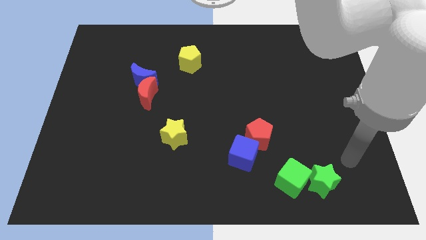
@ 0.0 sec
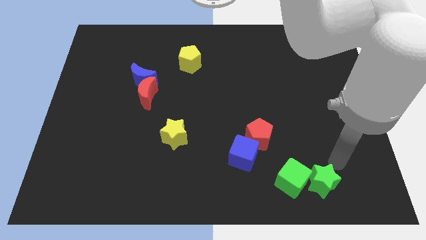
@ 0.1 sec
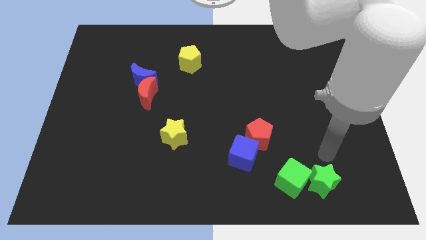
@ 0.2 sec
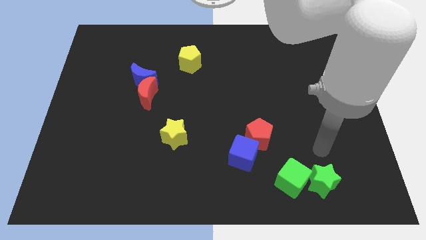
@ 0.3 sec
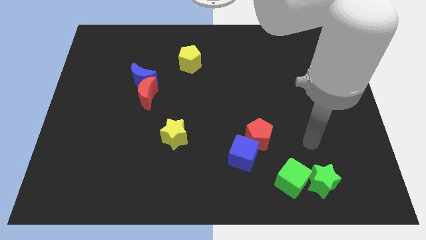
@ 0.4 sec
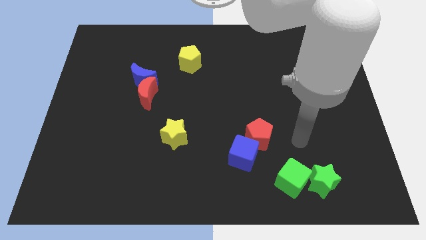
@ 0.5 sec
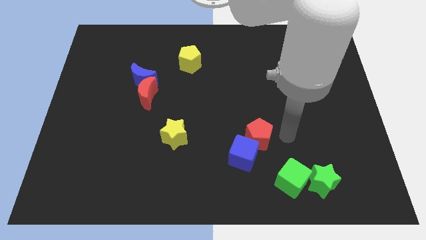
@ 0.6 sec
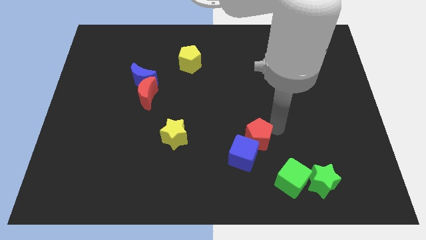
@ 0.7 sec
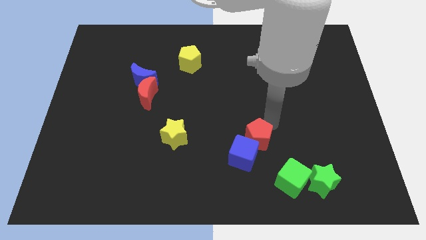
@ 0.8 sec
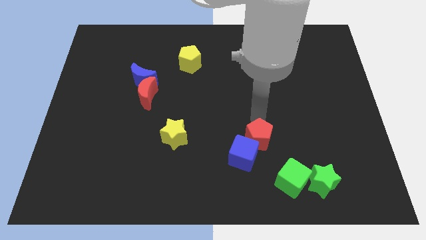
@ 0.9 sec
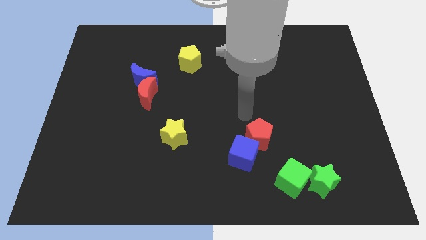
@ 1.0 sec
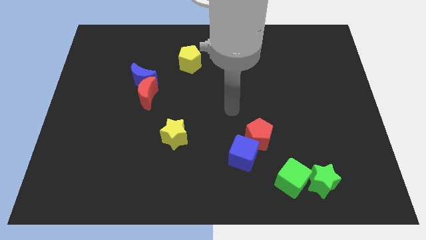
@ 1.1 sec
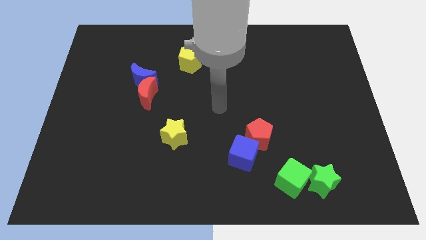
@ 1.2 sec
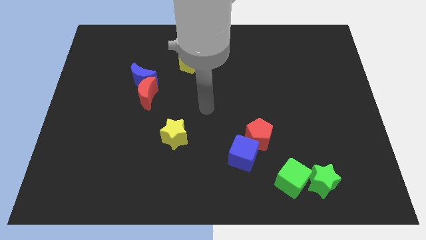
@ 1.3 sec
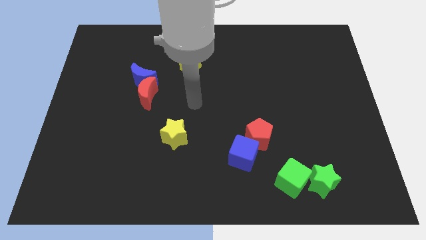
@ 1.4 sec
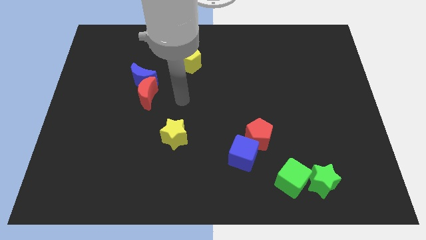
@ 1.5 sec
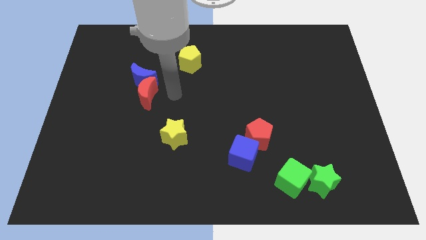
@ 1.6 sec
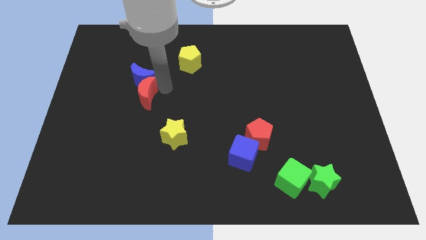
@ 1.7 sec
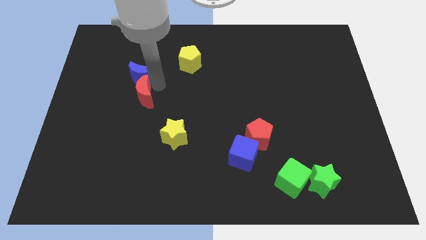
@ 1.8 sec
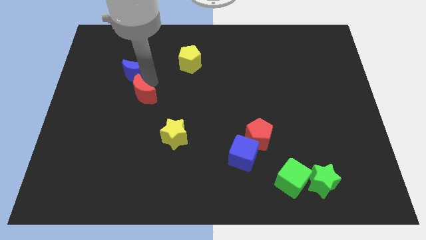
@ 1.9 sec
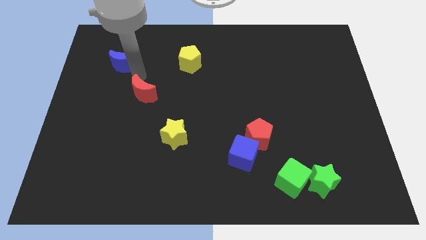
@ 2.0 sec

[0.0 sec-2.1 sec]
separate the red moon from the blue moon

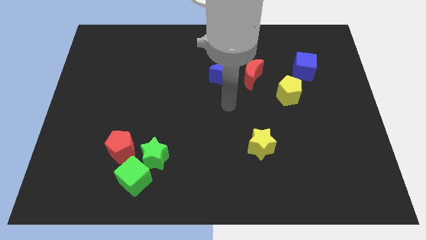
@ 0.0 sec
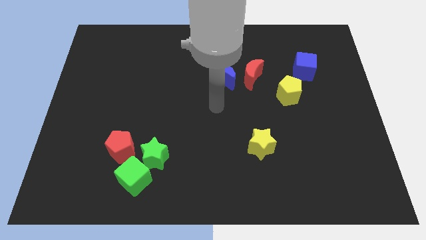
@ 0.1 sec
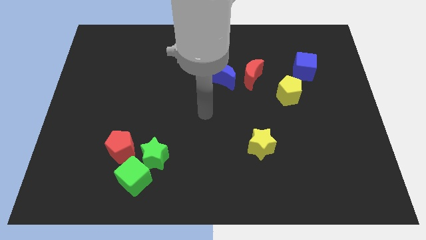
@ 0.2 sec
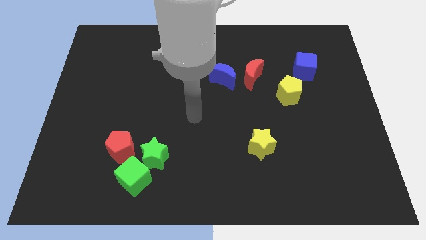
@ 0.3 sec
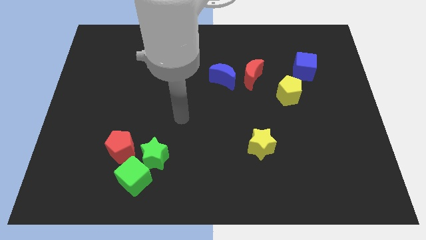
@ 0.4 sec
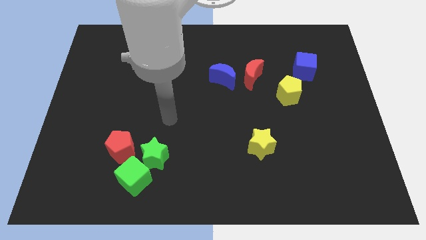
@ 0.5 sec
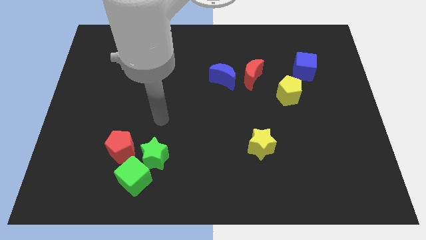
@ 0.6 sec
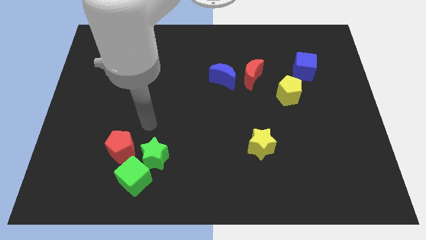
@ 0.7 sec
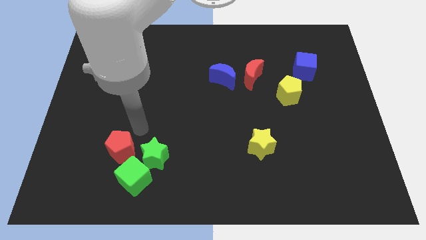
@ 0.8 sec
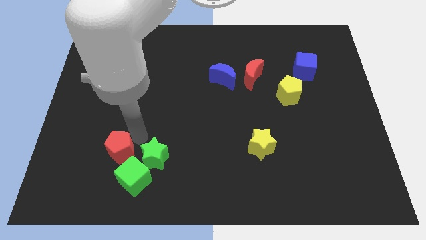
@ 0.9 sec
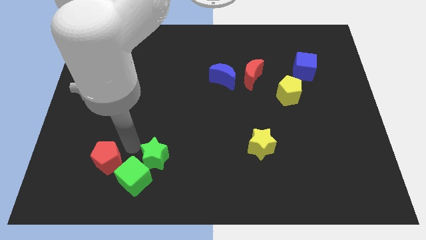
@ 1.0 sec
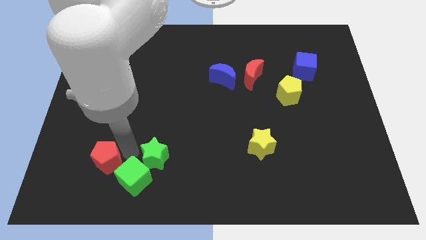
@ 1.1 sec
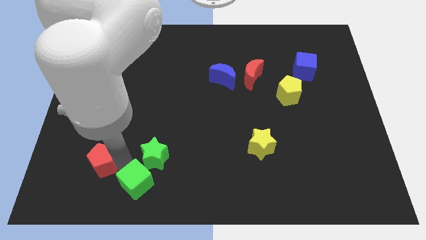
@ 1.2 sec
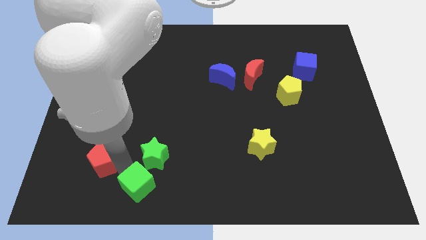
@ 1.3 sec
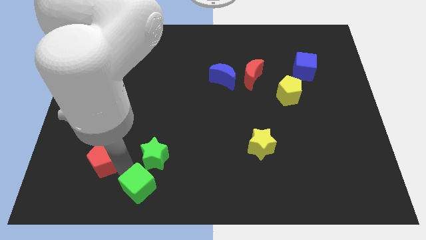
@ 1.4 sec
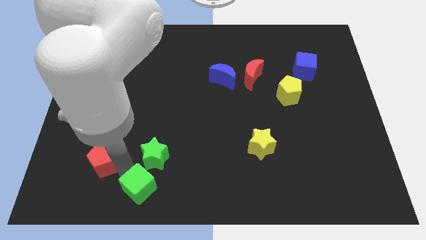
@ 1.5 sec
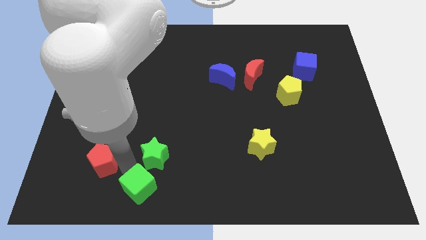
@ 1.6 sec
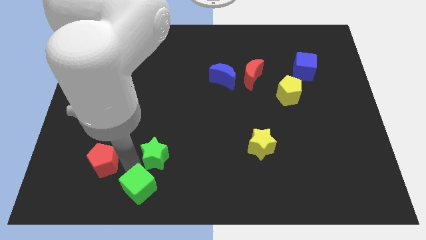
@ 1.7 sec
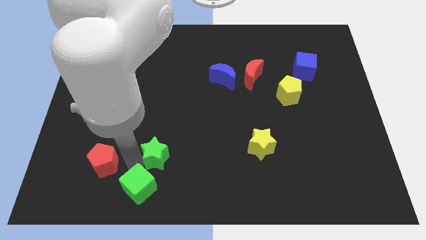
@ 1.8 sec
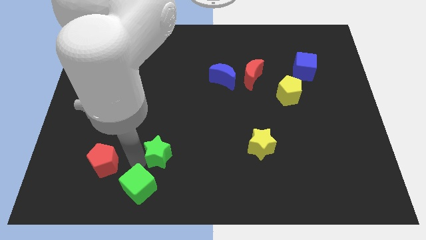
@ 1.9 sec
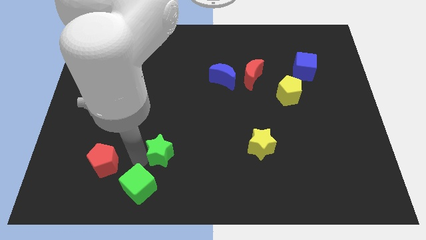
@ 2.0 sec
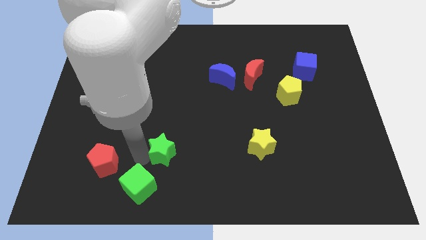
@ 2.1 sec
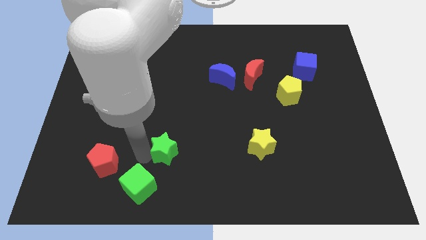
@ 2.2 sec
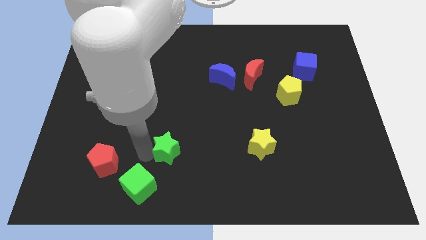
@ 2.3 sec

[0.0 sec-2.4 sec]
separate the green star from the green cube and red pentagon

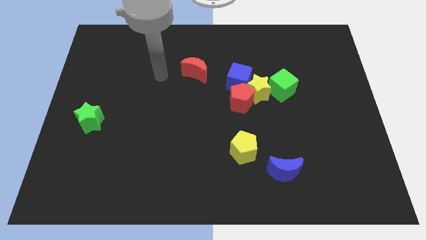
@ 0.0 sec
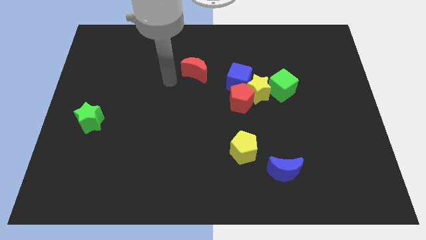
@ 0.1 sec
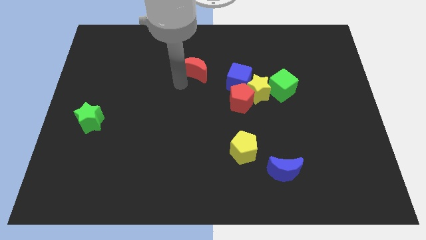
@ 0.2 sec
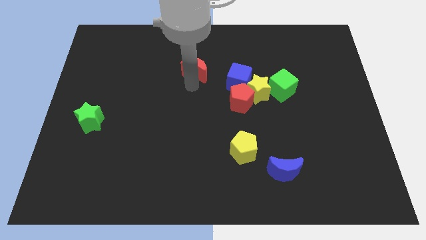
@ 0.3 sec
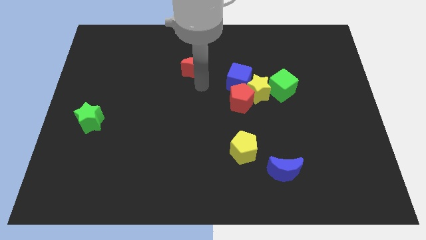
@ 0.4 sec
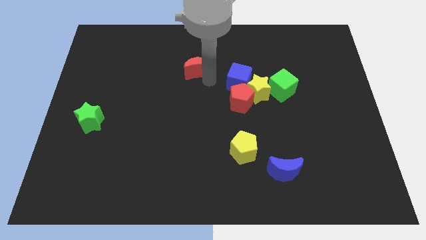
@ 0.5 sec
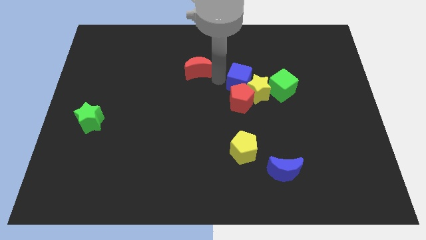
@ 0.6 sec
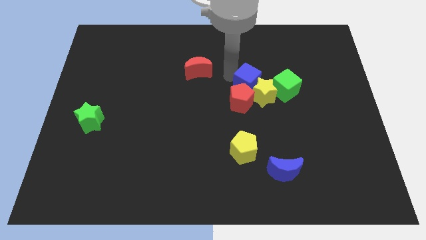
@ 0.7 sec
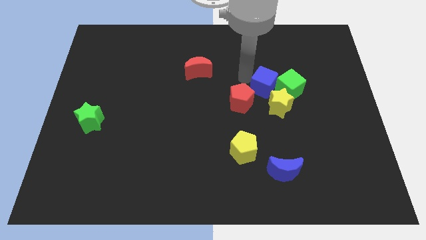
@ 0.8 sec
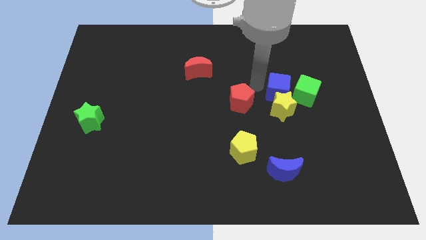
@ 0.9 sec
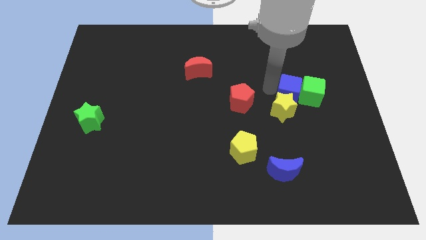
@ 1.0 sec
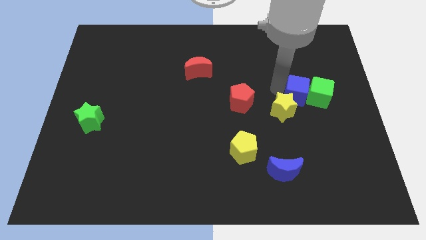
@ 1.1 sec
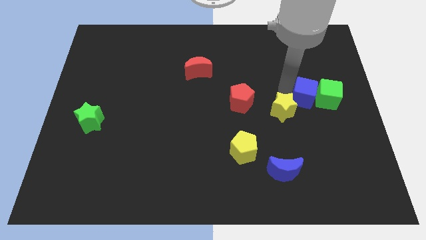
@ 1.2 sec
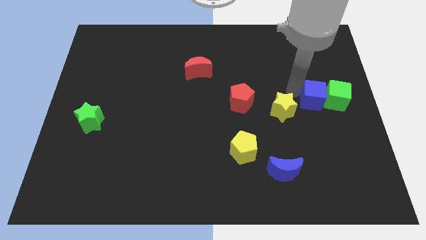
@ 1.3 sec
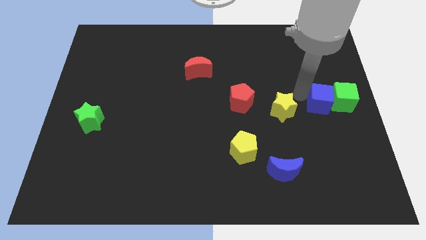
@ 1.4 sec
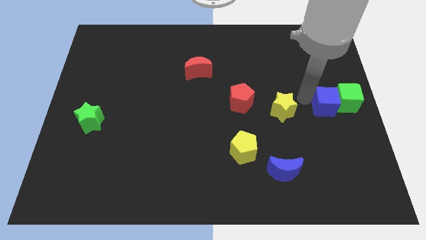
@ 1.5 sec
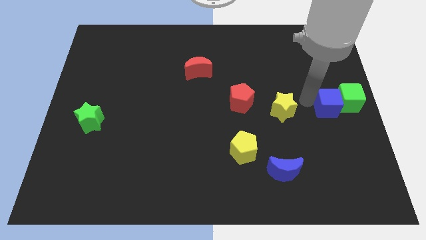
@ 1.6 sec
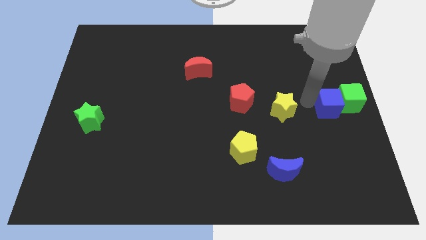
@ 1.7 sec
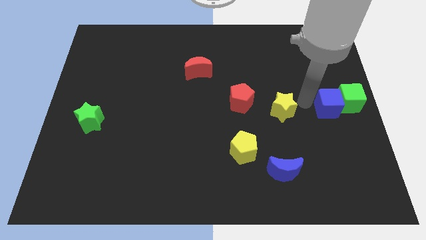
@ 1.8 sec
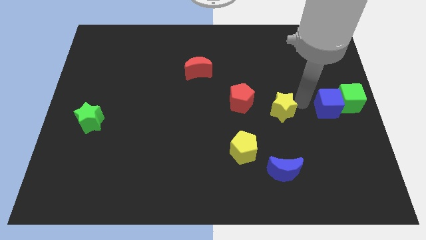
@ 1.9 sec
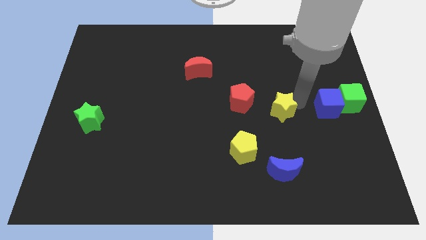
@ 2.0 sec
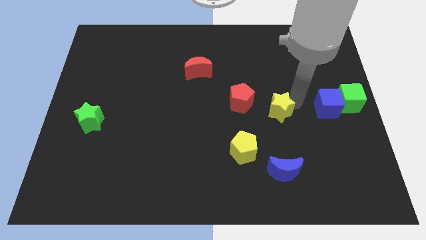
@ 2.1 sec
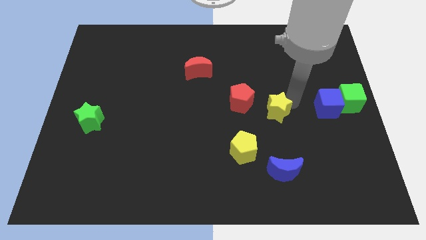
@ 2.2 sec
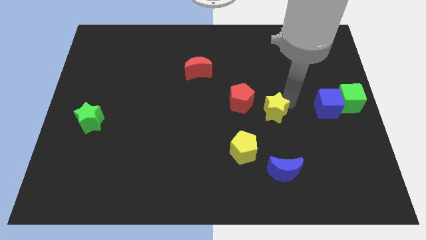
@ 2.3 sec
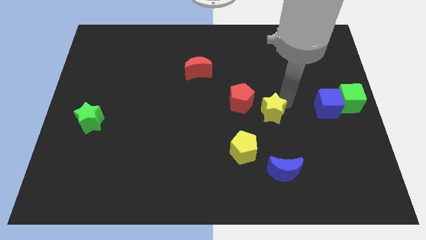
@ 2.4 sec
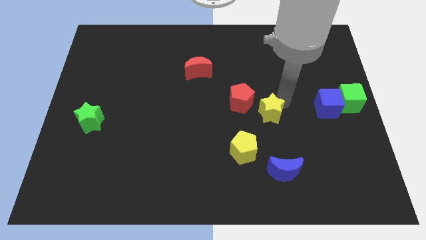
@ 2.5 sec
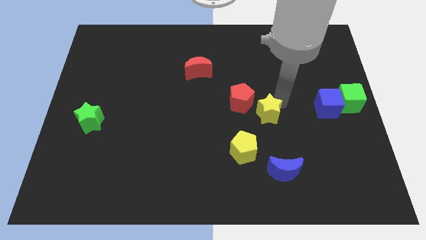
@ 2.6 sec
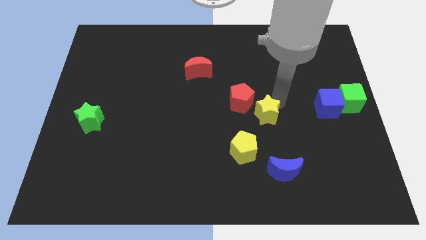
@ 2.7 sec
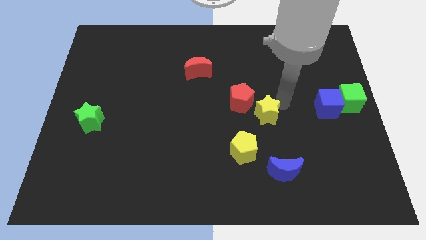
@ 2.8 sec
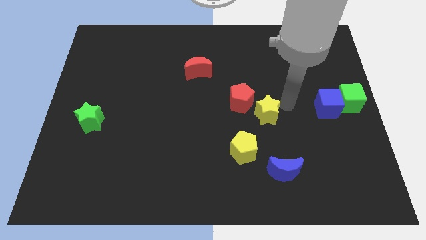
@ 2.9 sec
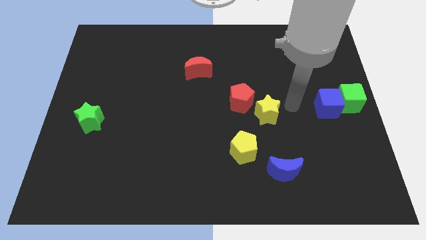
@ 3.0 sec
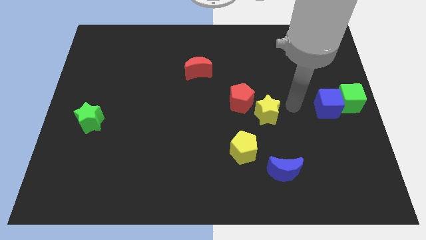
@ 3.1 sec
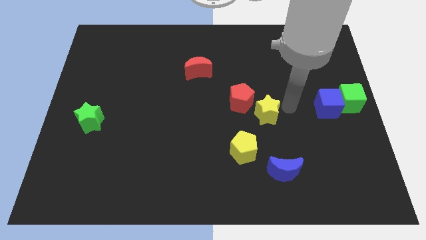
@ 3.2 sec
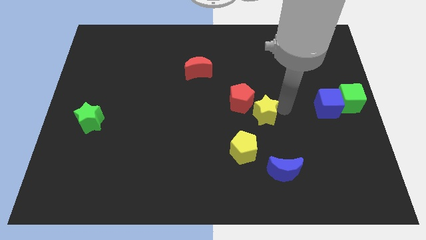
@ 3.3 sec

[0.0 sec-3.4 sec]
move the yellow star away from the group of blocks

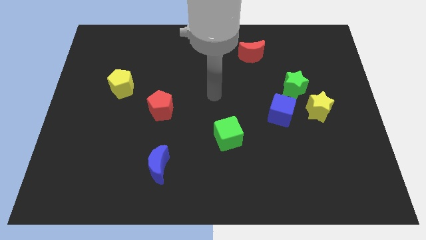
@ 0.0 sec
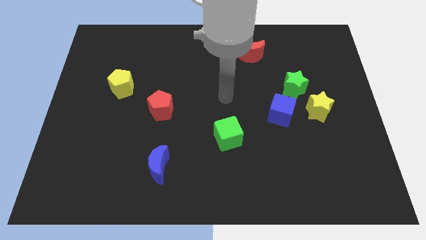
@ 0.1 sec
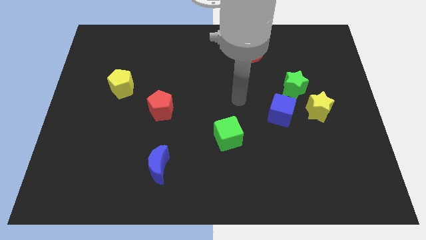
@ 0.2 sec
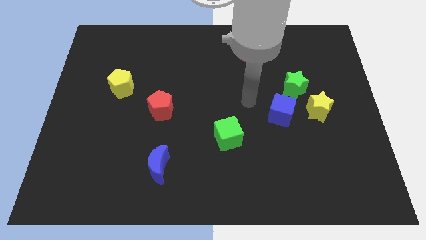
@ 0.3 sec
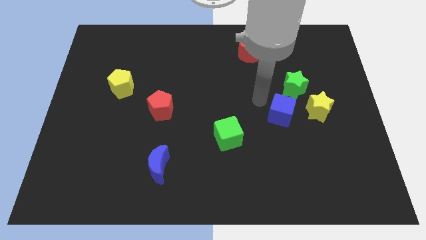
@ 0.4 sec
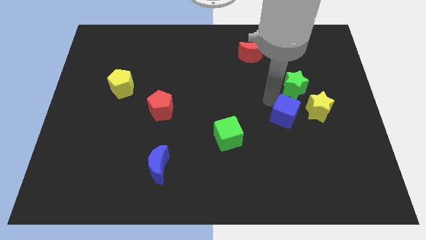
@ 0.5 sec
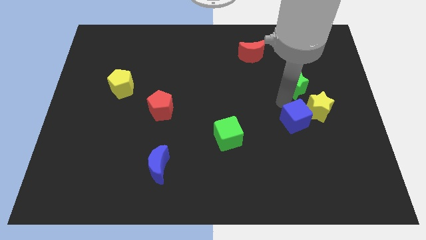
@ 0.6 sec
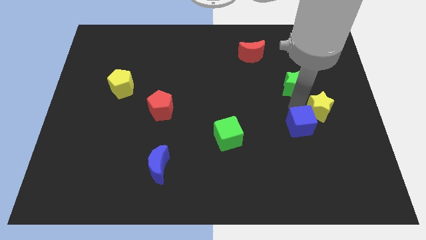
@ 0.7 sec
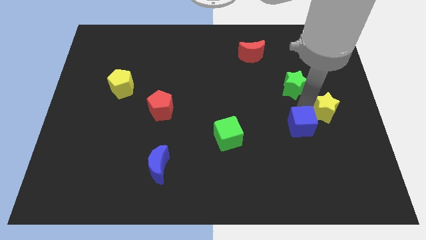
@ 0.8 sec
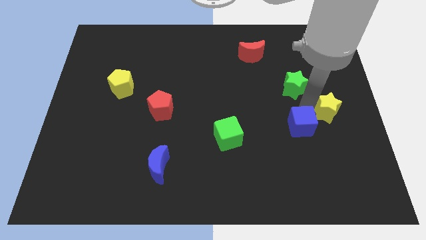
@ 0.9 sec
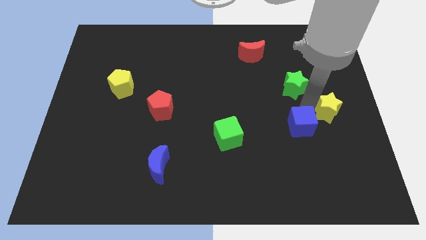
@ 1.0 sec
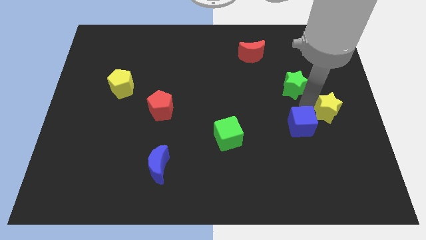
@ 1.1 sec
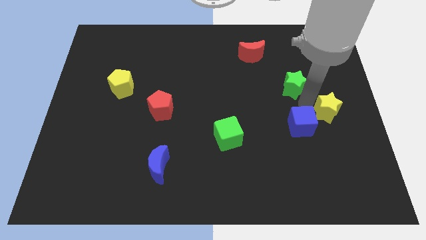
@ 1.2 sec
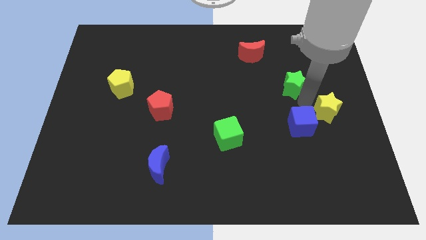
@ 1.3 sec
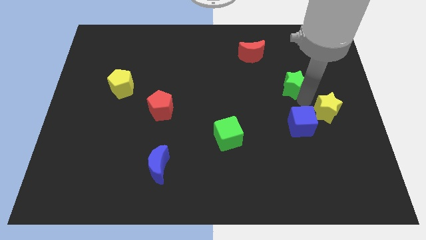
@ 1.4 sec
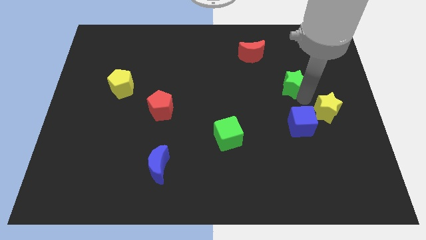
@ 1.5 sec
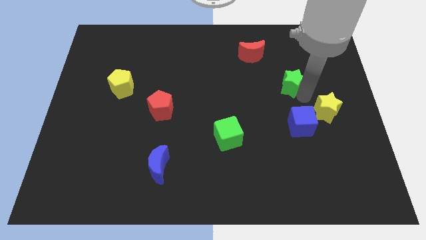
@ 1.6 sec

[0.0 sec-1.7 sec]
move the green star away from the yellow star and blue cube
